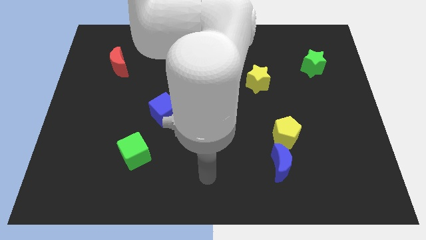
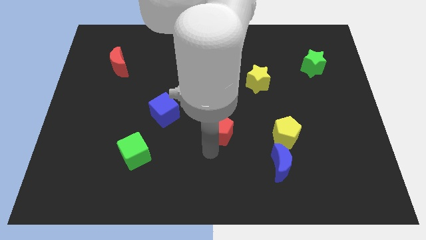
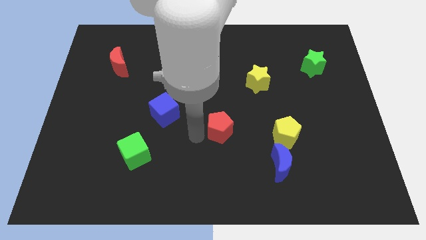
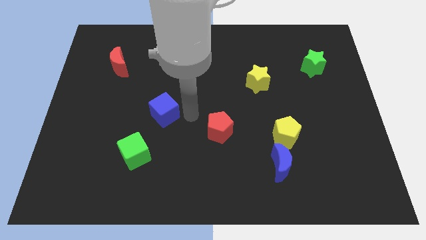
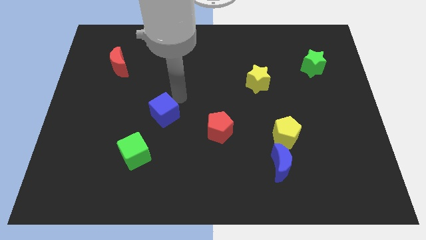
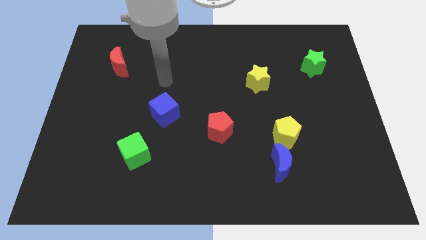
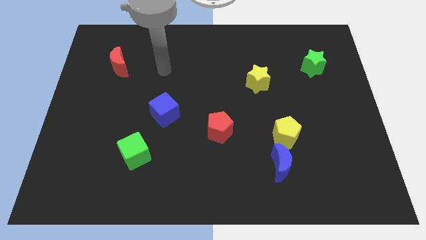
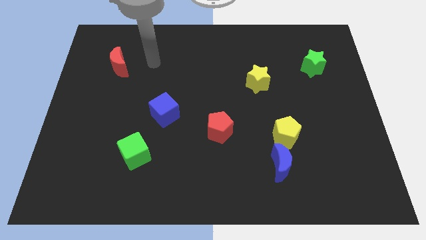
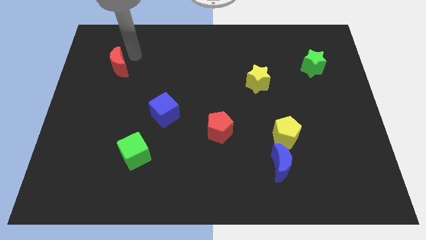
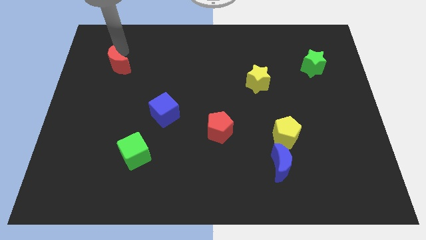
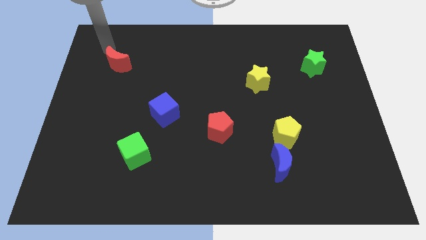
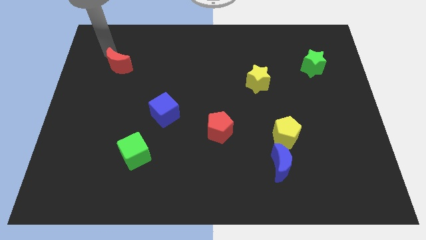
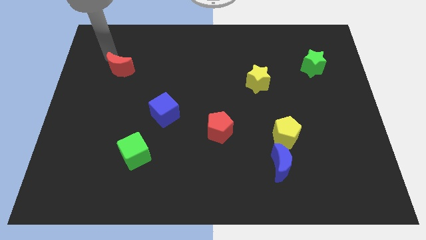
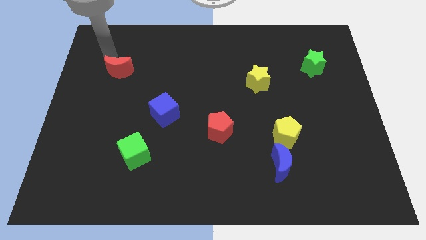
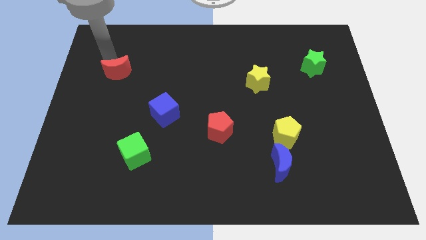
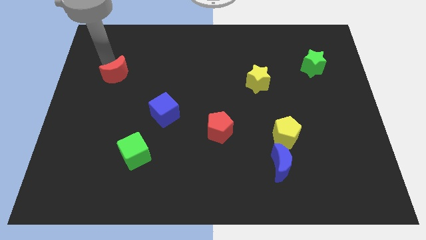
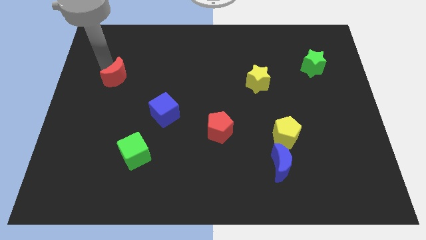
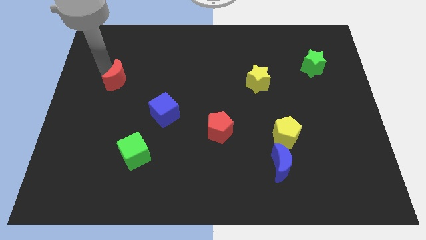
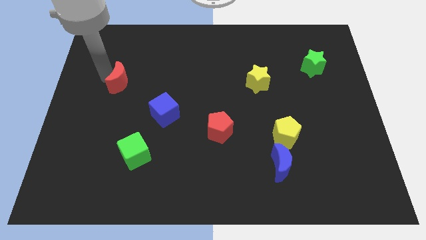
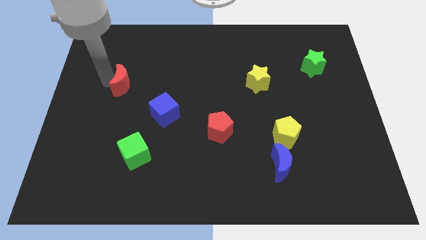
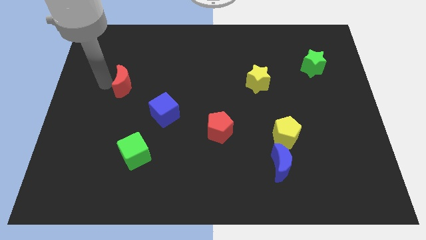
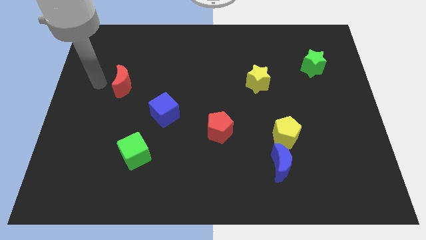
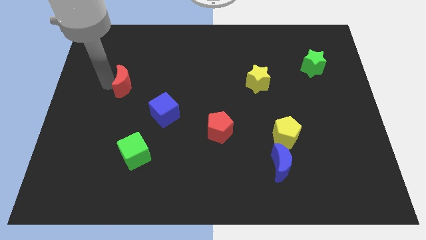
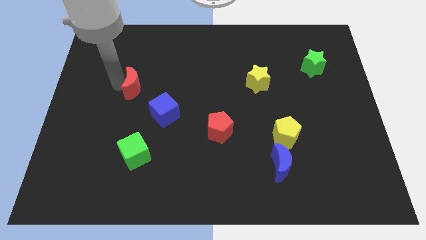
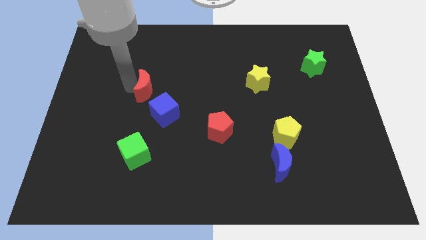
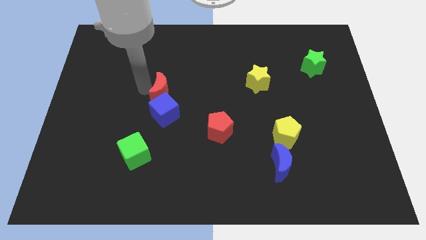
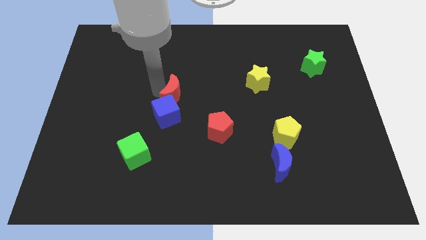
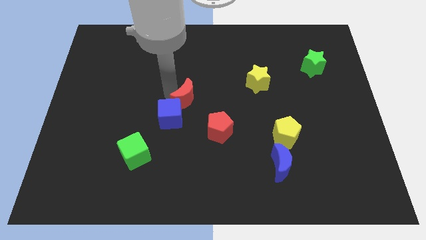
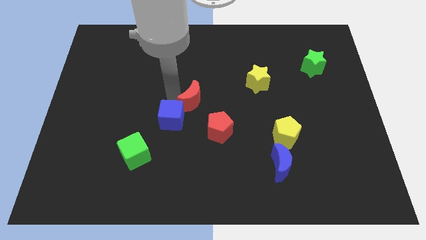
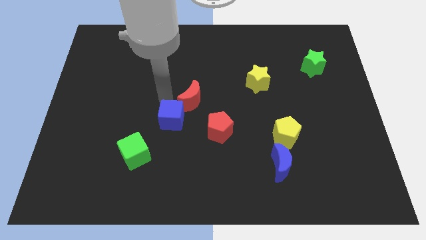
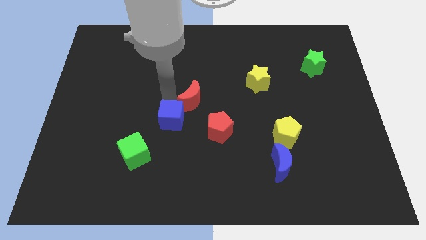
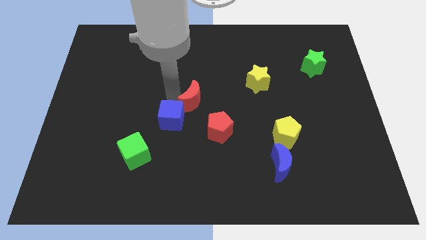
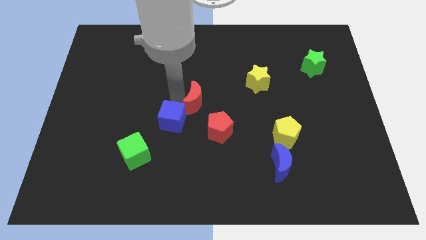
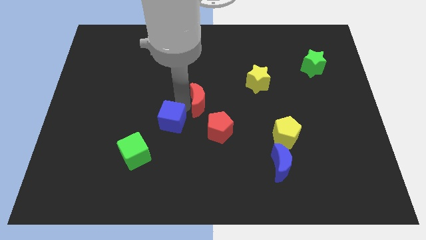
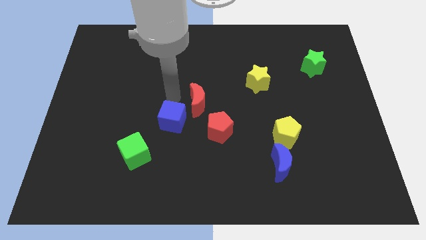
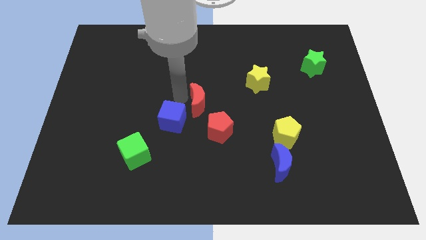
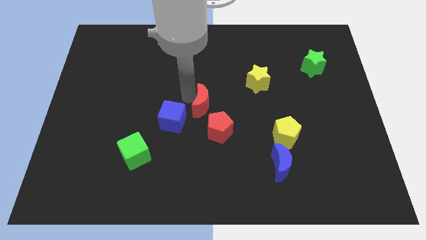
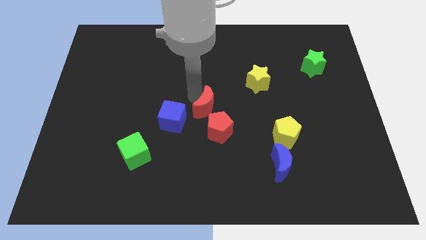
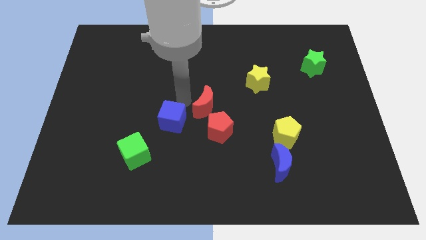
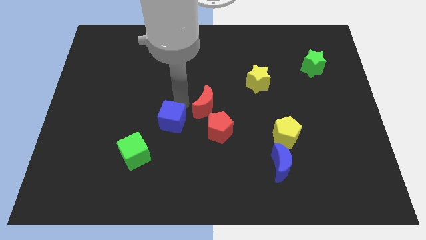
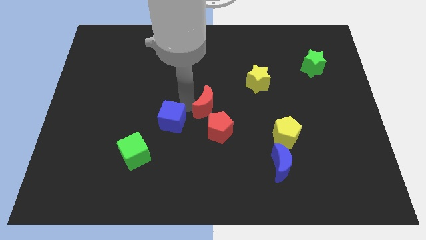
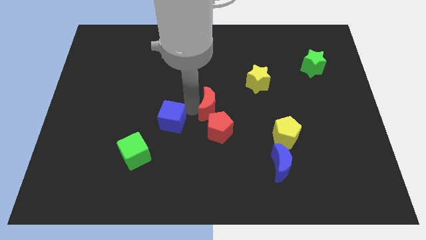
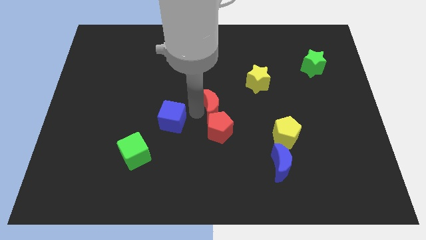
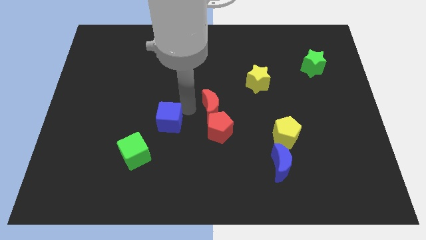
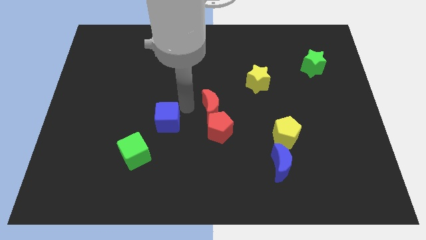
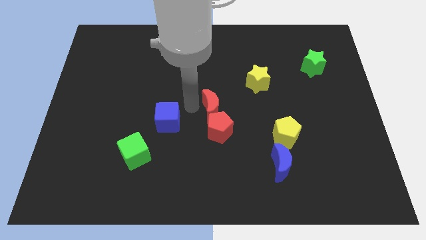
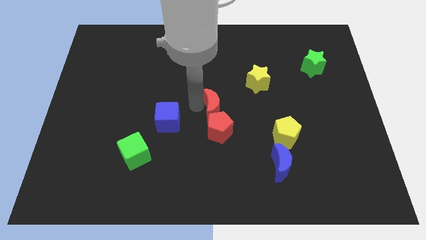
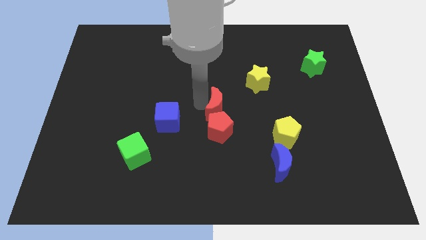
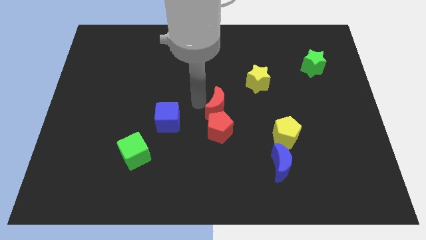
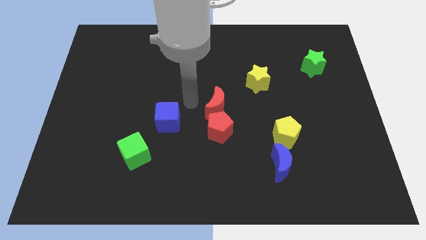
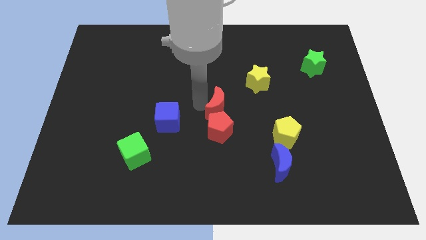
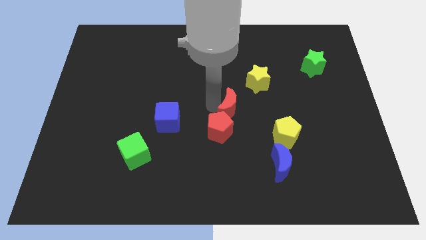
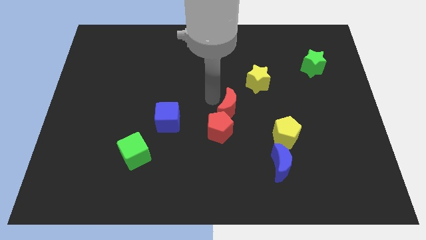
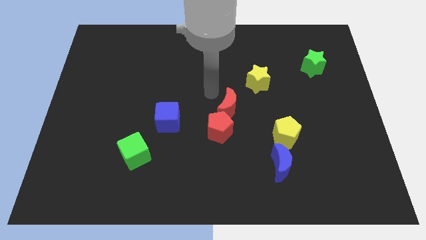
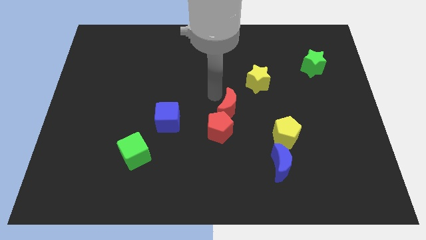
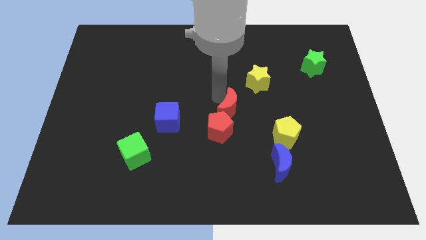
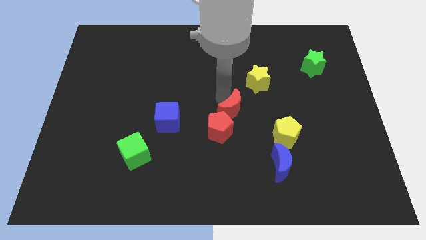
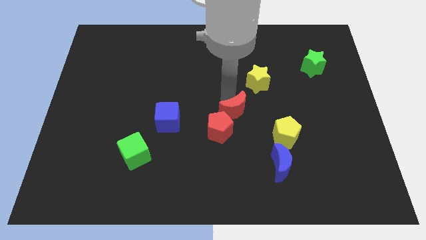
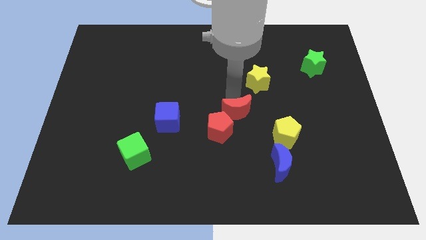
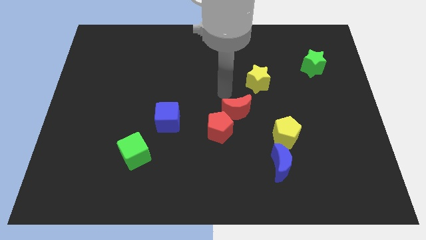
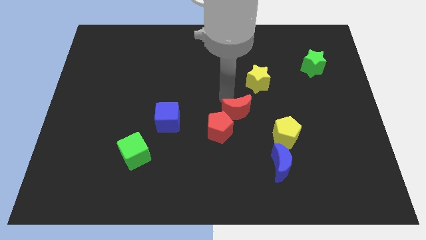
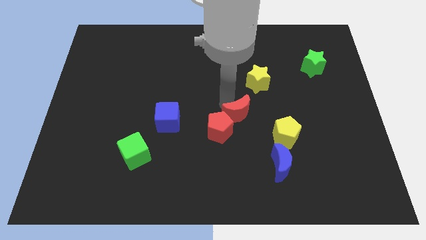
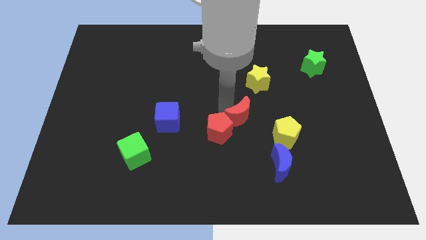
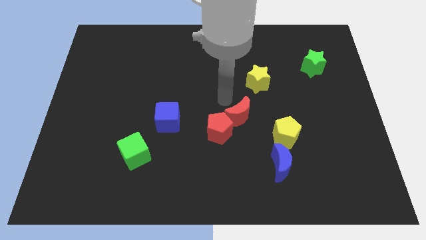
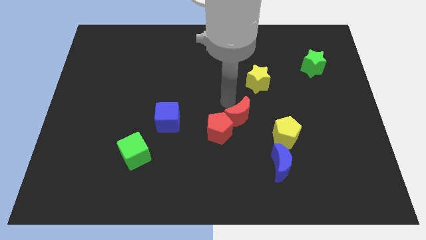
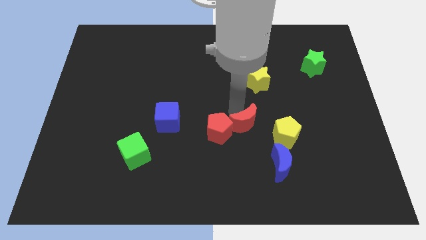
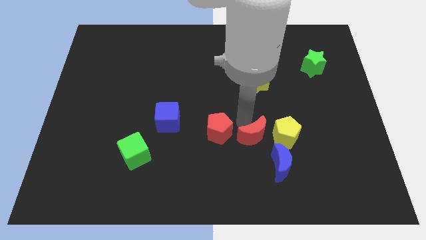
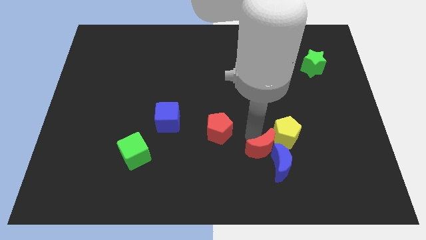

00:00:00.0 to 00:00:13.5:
slide the red moon to the blue moon

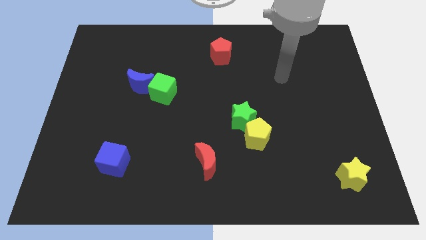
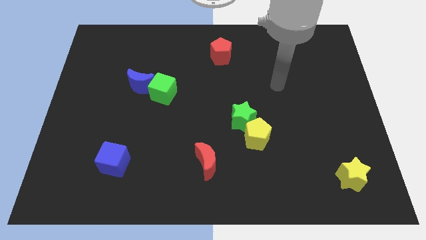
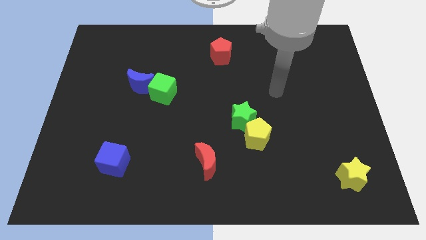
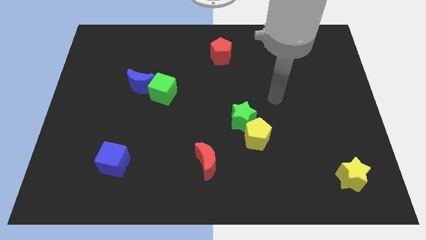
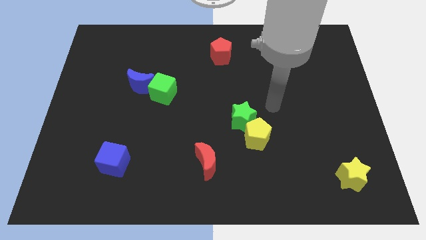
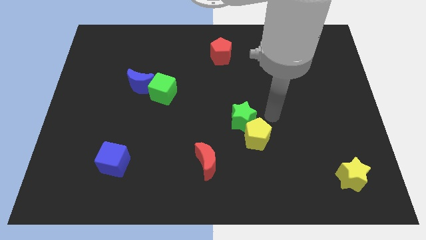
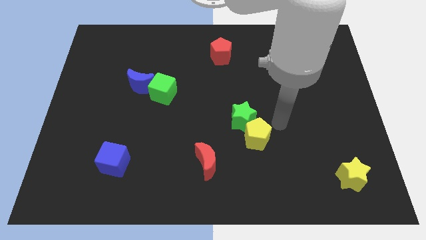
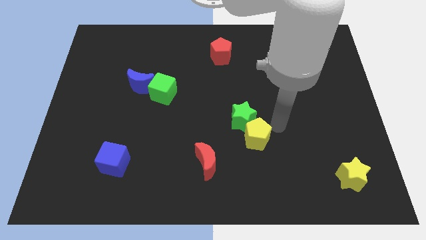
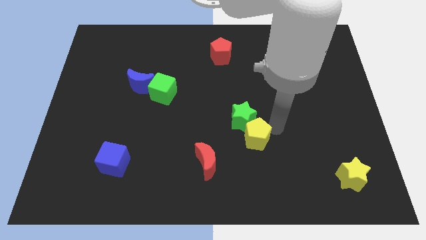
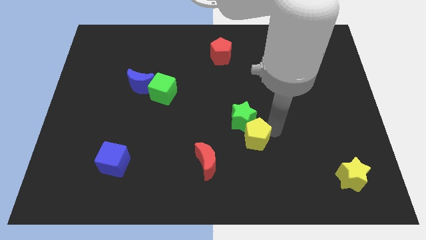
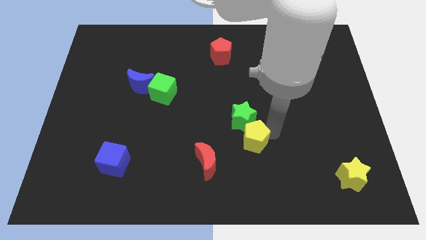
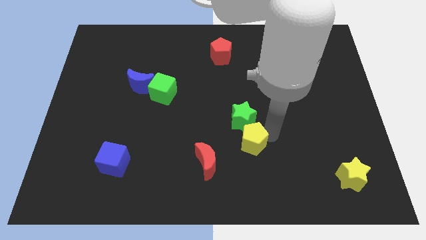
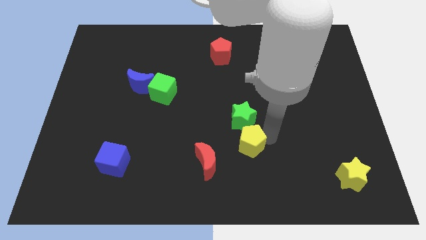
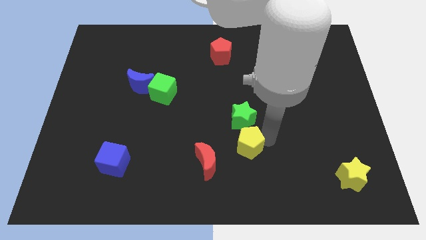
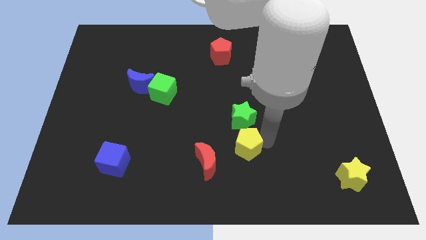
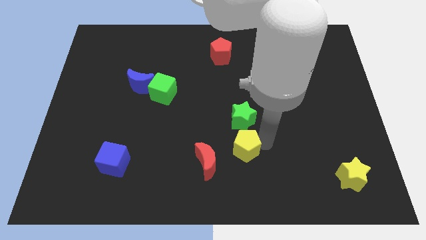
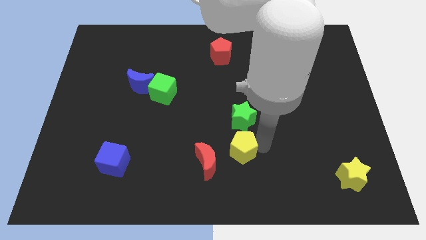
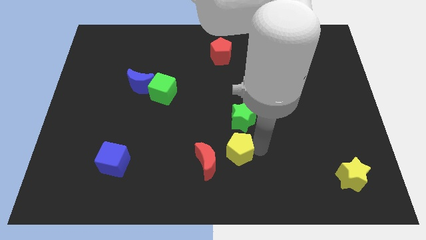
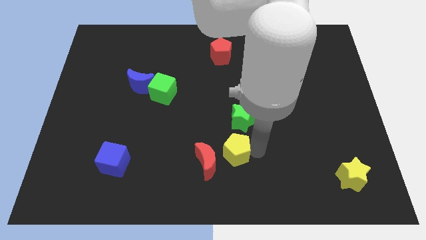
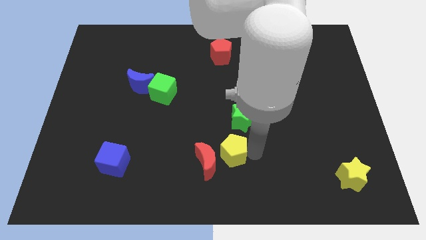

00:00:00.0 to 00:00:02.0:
push the yellow pentagon next to the red moon
